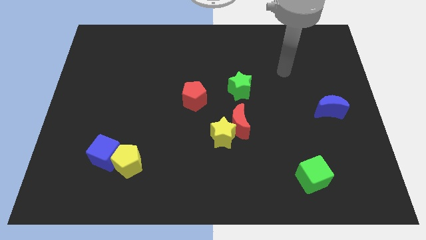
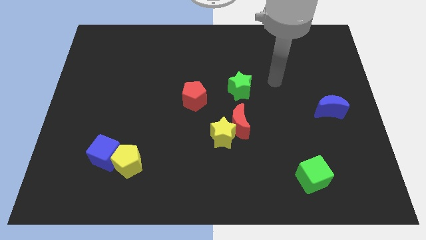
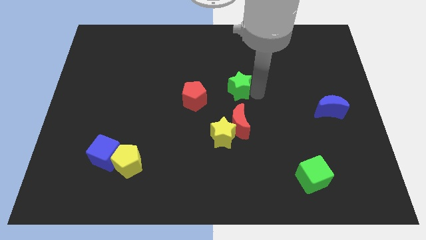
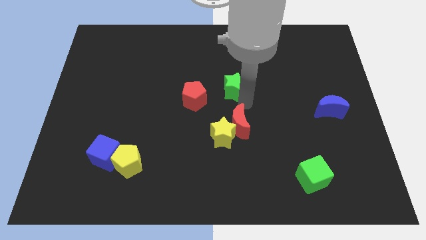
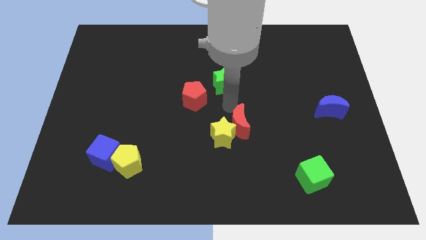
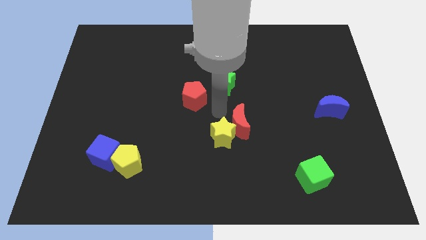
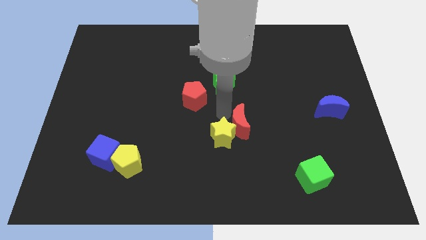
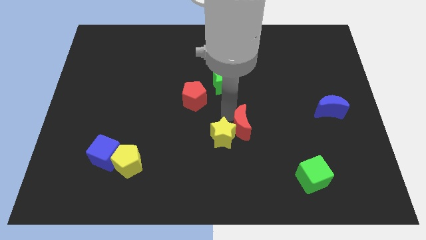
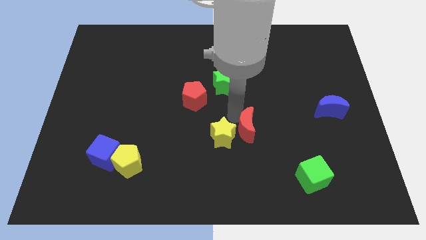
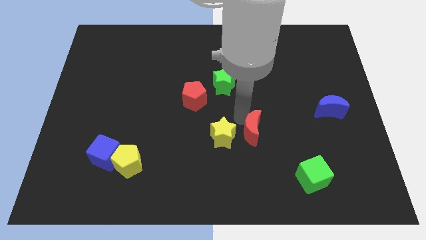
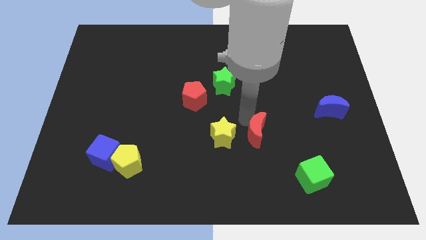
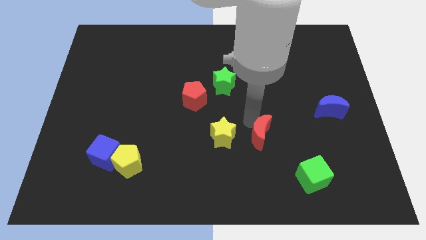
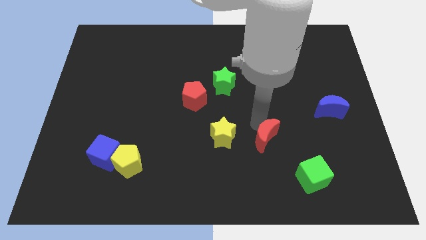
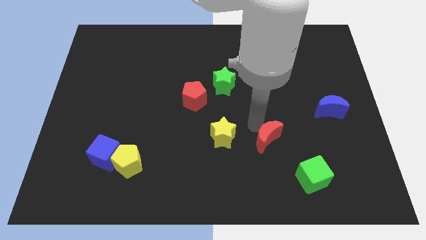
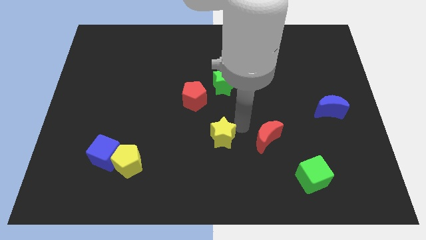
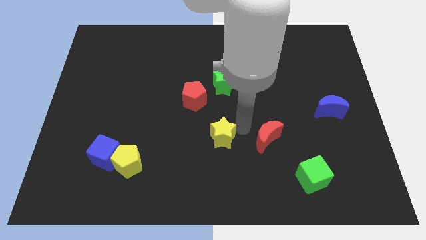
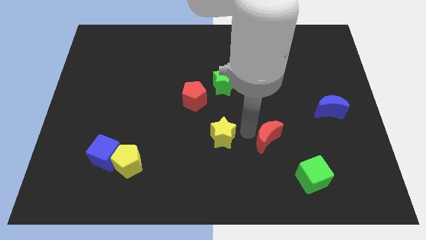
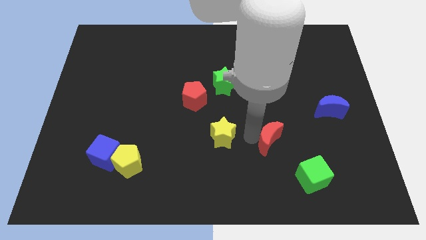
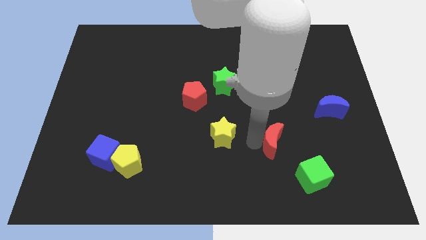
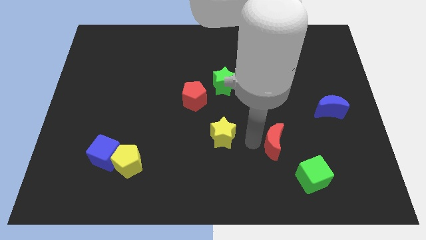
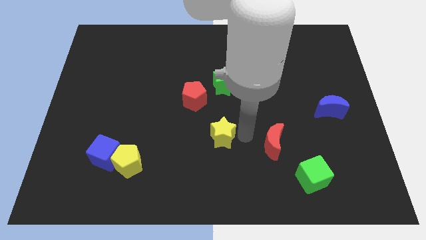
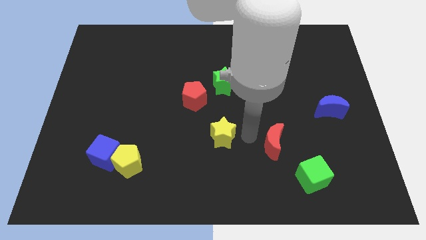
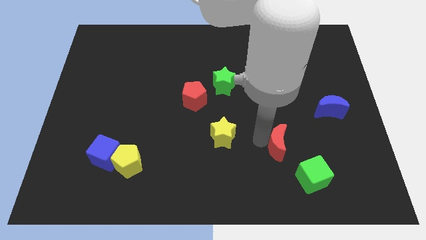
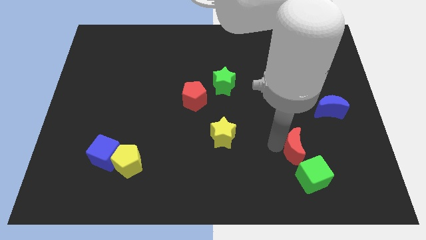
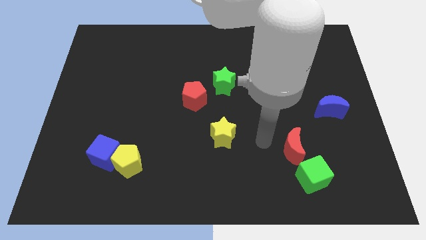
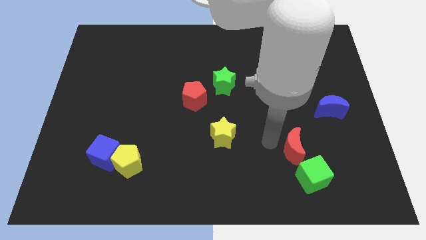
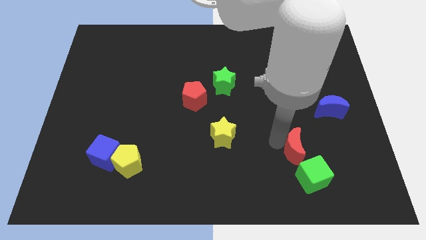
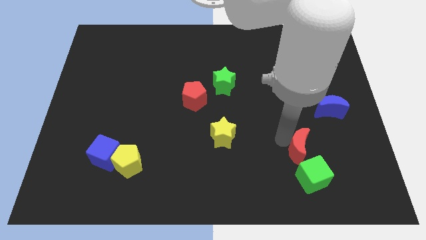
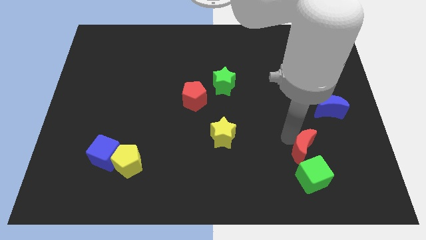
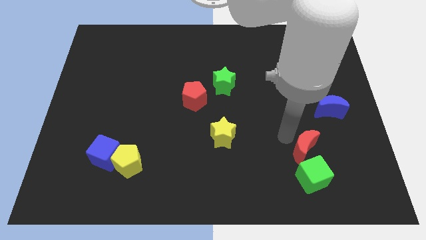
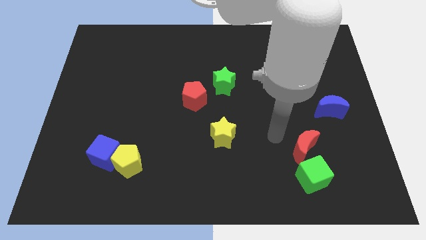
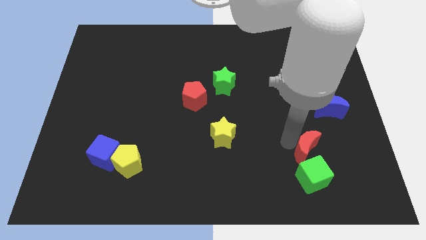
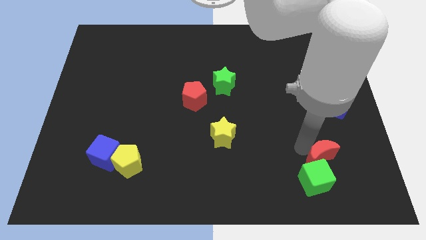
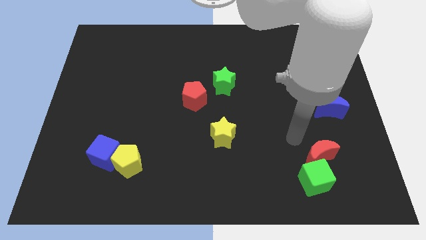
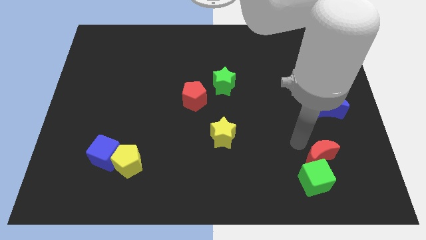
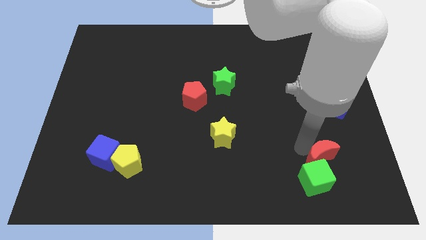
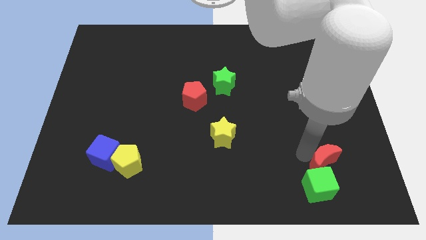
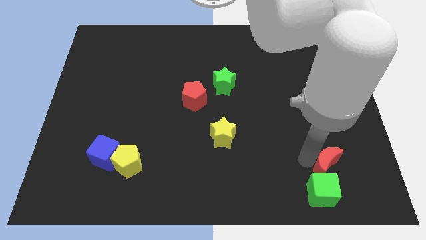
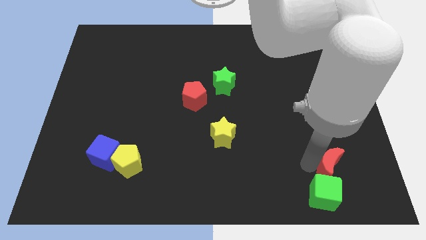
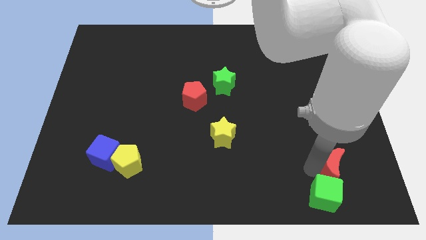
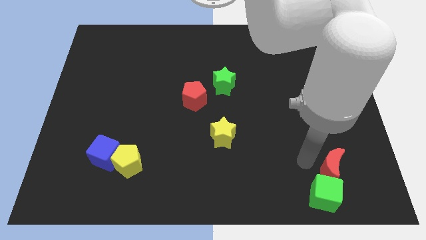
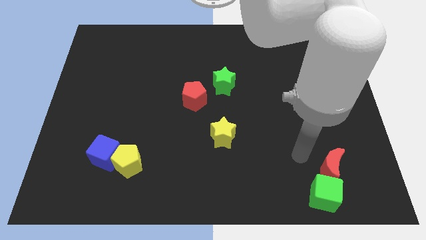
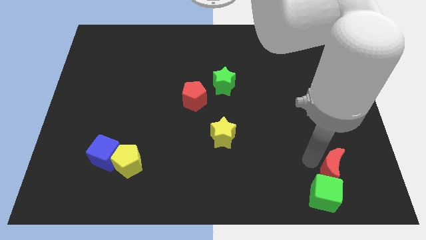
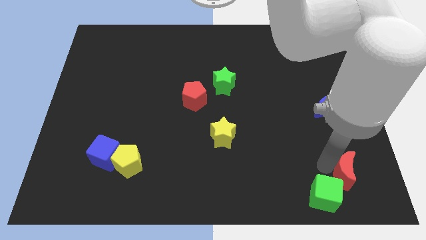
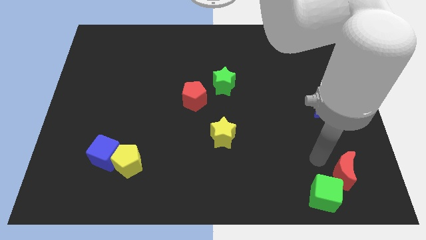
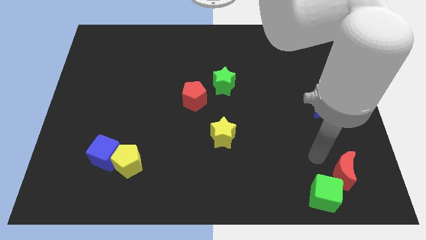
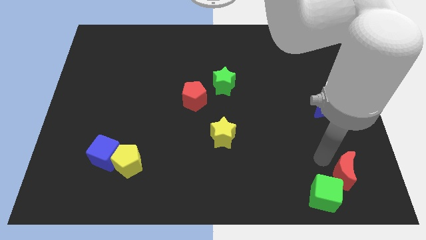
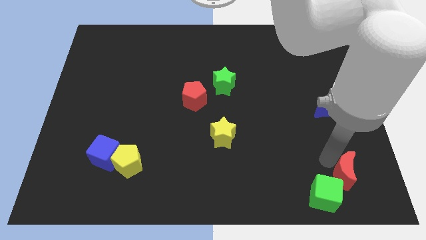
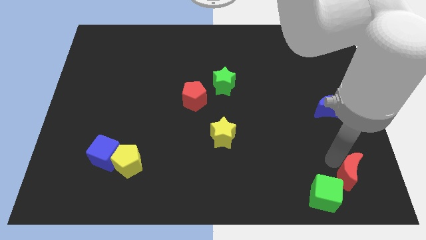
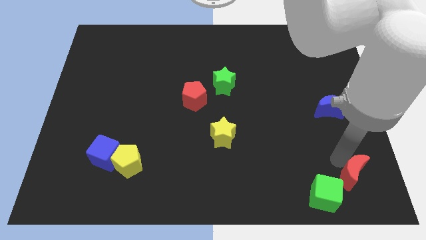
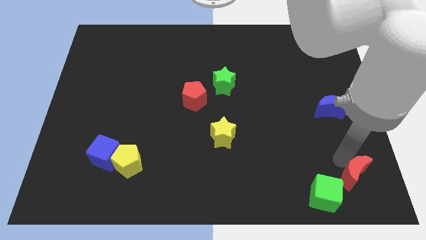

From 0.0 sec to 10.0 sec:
slide the red moon to the lower right corner

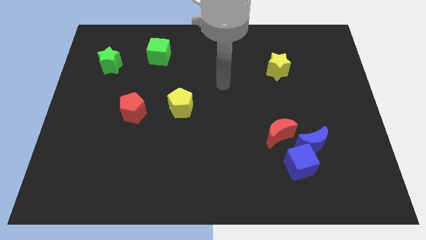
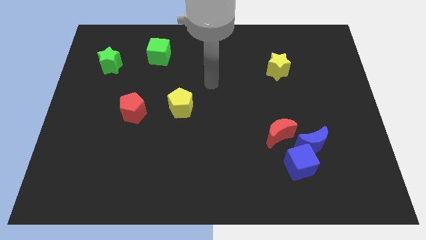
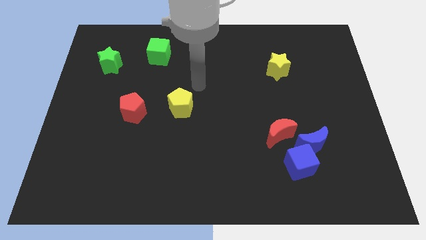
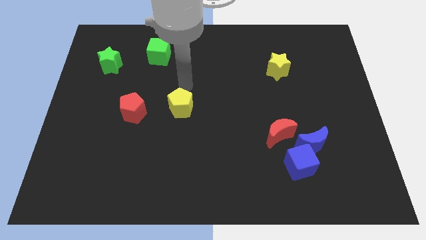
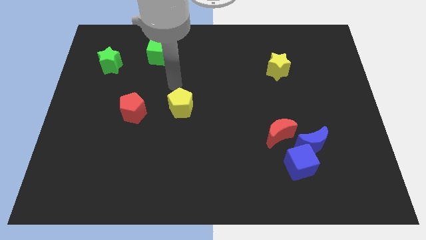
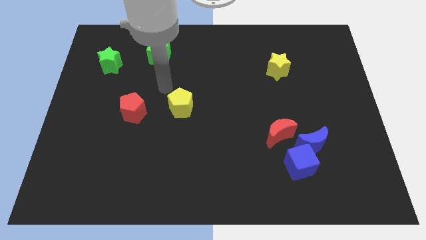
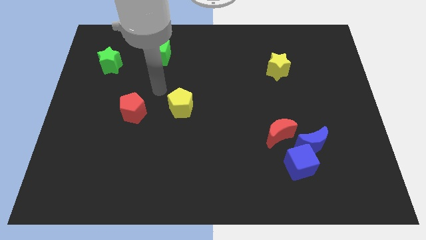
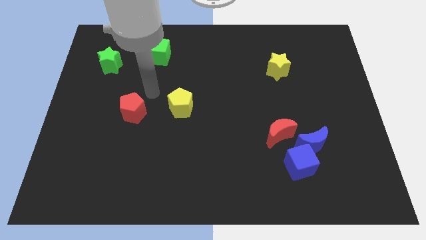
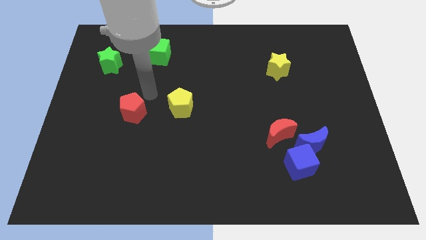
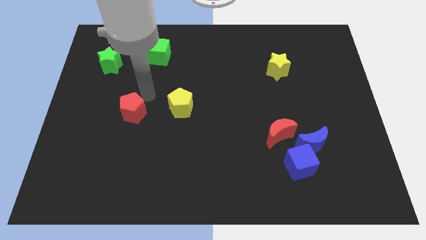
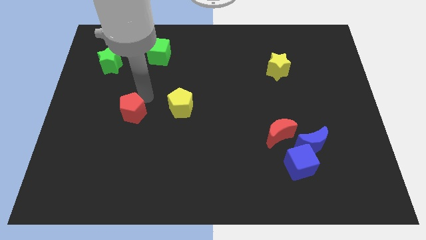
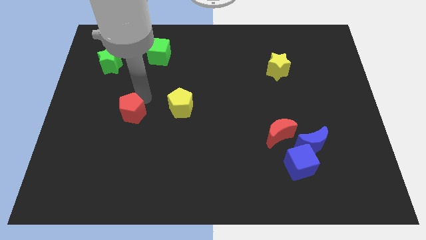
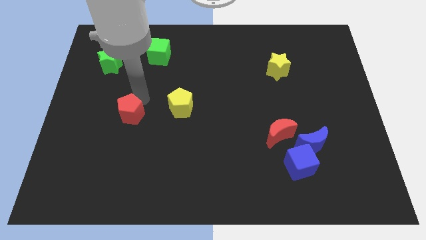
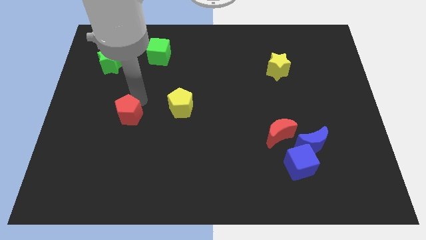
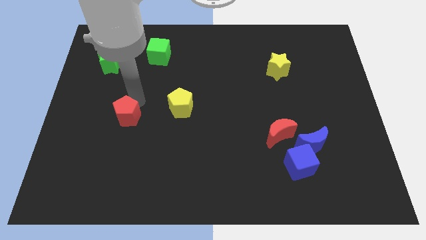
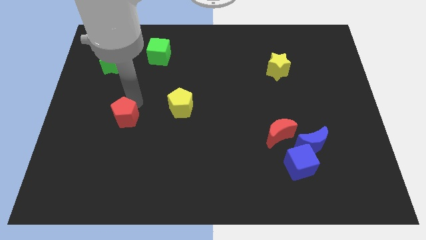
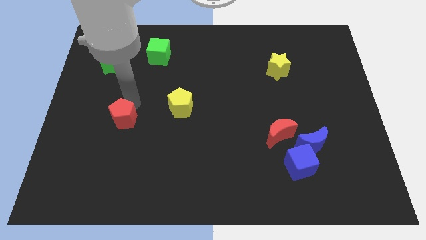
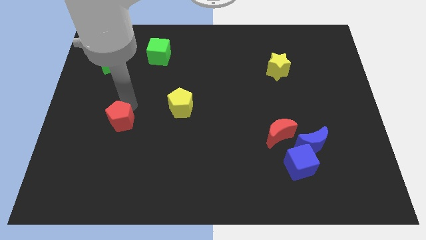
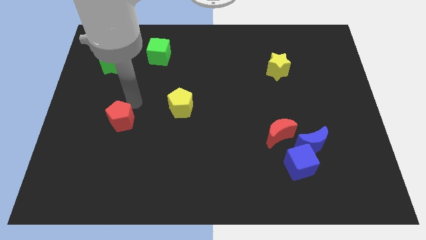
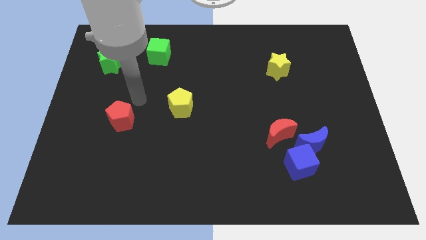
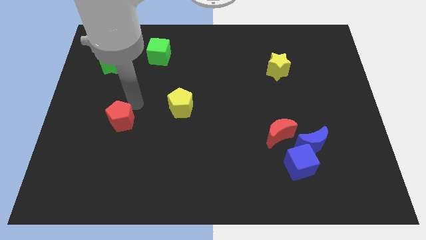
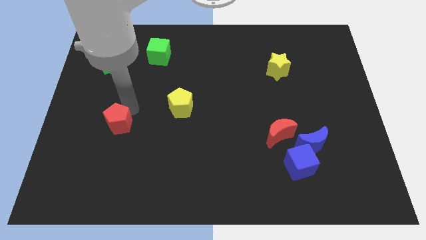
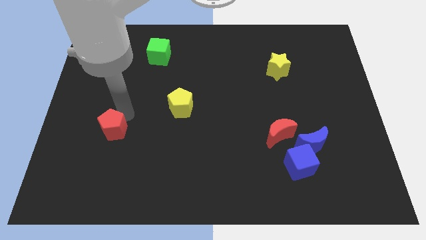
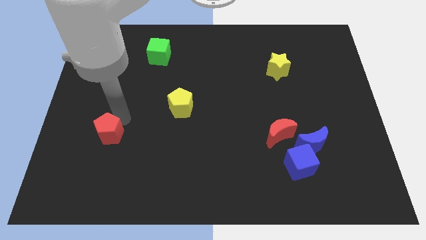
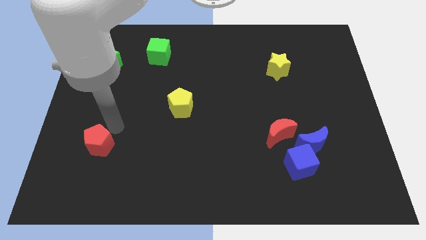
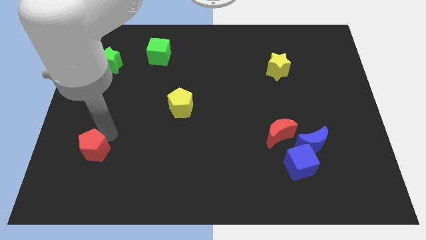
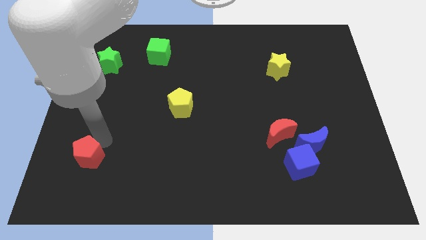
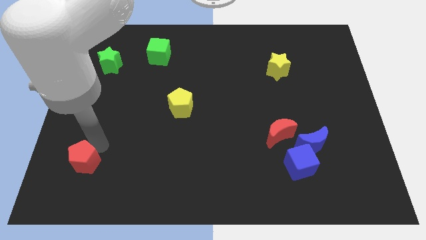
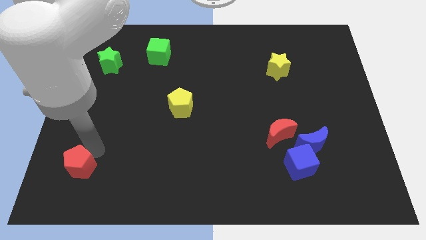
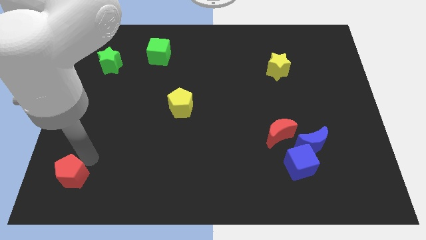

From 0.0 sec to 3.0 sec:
put the red pentagon to the bottom left of the board
